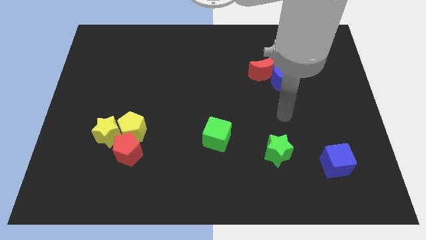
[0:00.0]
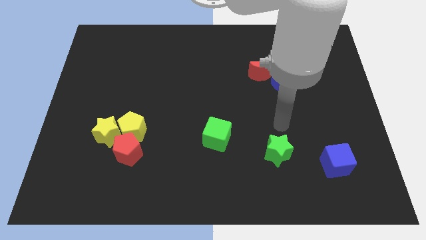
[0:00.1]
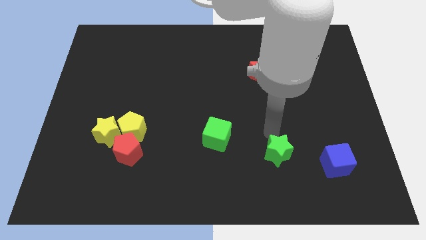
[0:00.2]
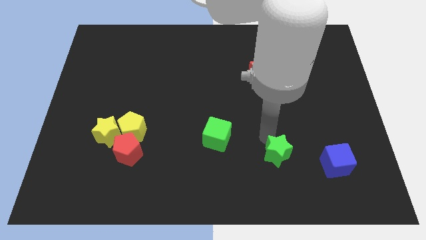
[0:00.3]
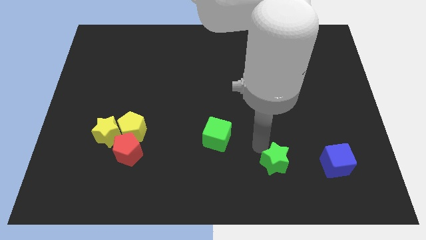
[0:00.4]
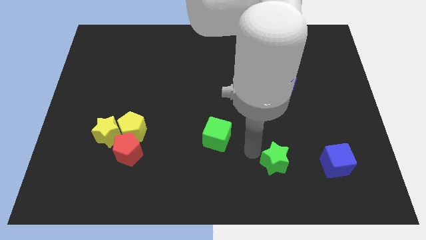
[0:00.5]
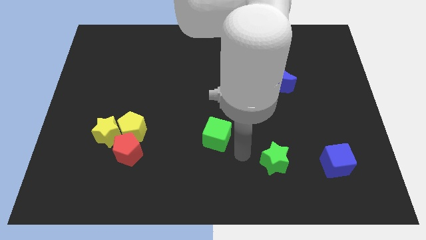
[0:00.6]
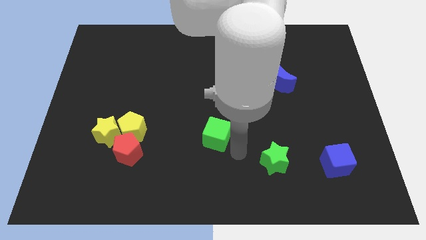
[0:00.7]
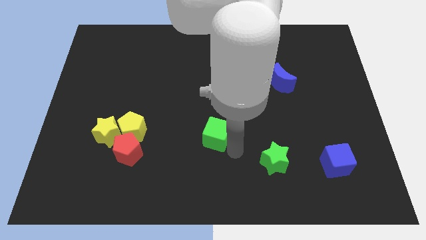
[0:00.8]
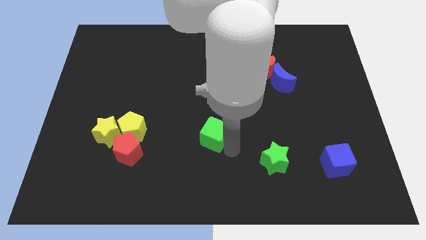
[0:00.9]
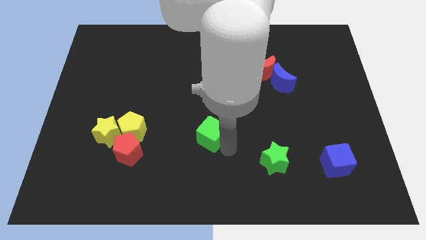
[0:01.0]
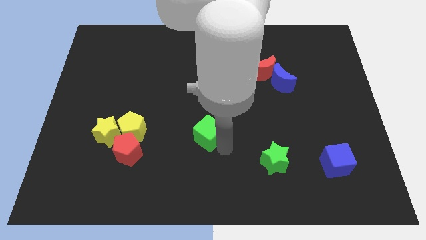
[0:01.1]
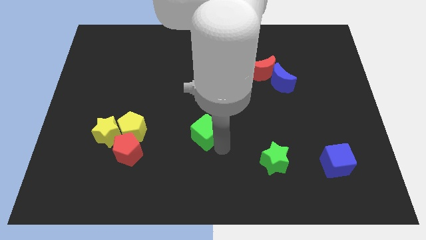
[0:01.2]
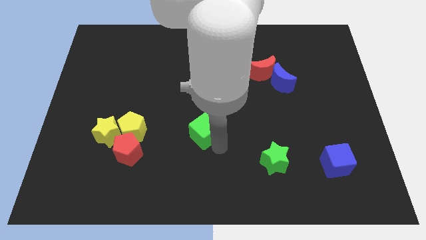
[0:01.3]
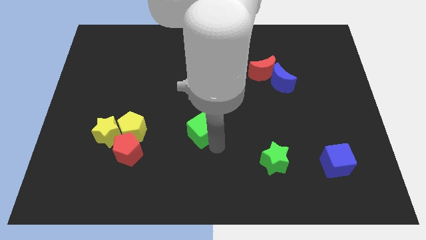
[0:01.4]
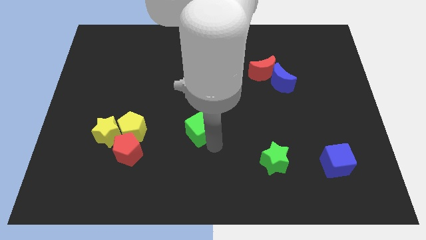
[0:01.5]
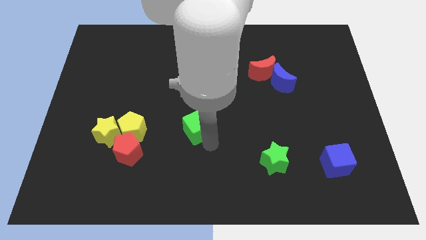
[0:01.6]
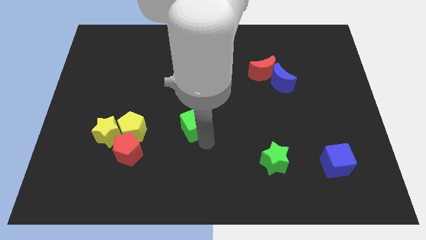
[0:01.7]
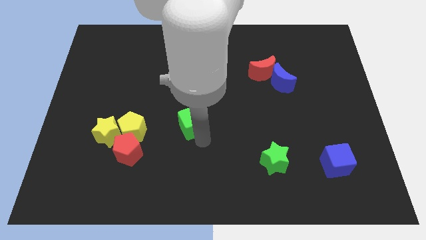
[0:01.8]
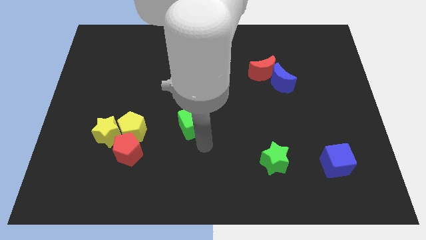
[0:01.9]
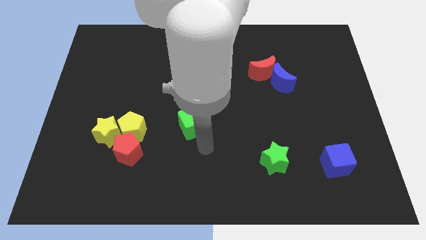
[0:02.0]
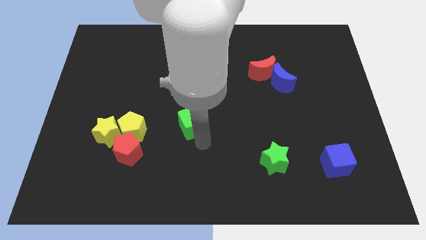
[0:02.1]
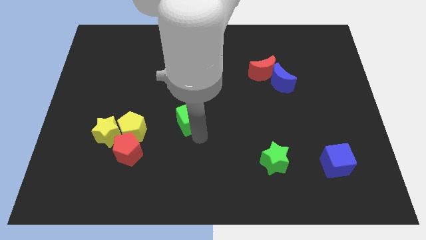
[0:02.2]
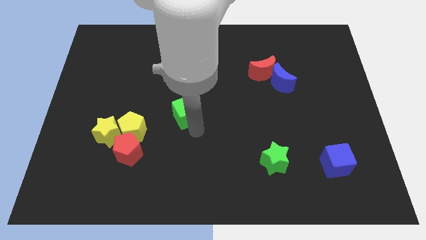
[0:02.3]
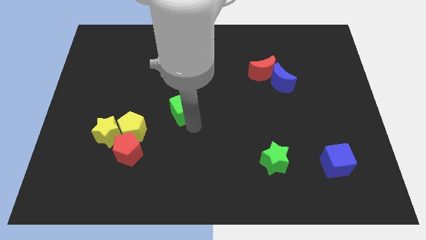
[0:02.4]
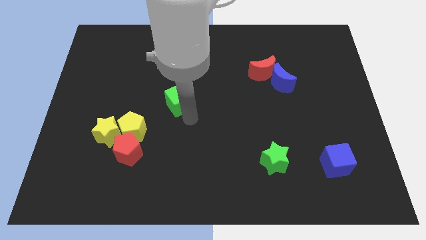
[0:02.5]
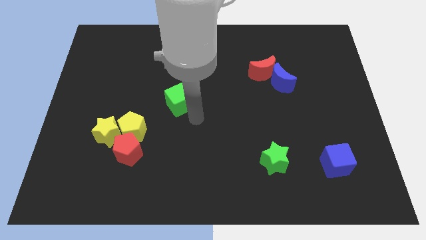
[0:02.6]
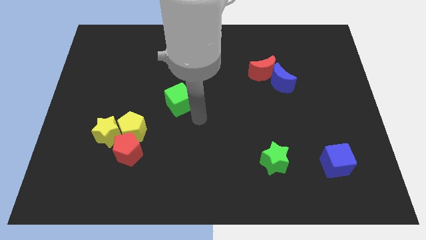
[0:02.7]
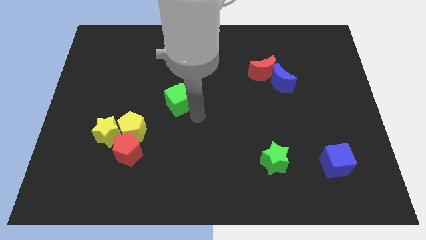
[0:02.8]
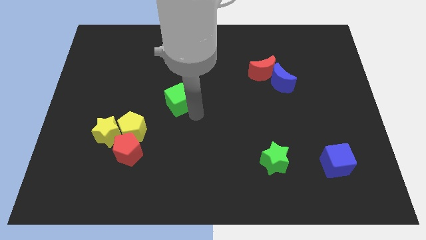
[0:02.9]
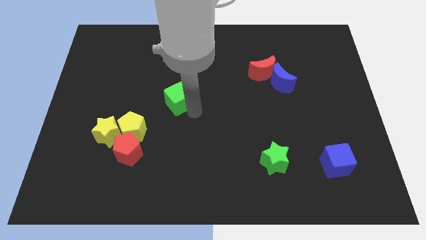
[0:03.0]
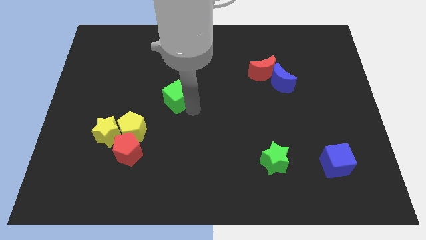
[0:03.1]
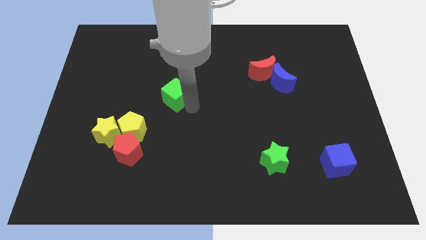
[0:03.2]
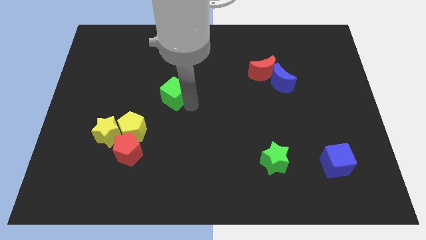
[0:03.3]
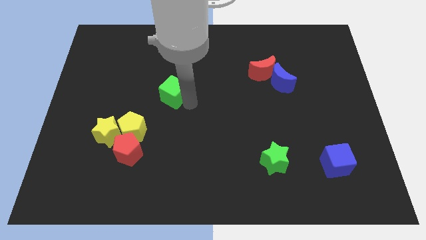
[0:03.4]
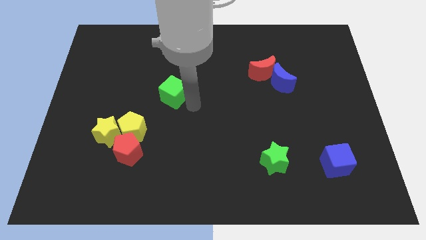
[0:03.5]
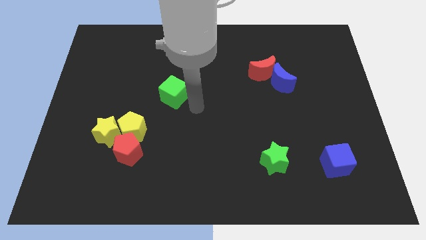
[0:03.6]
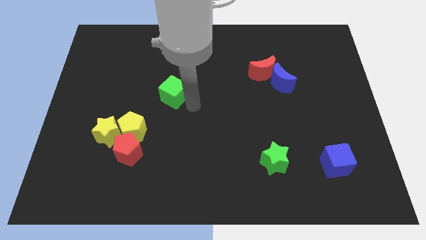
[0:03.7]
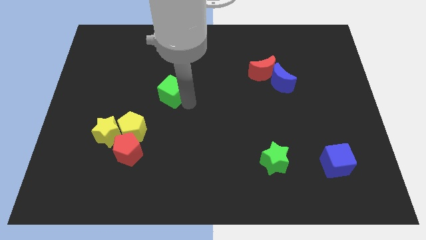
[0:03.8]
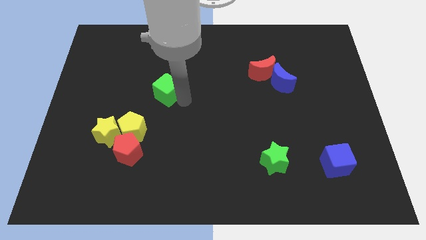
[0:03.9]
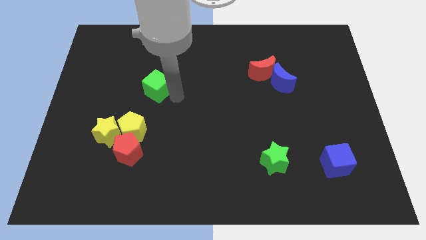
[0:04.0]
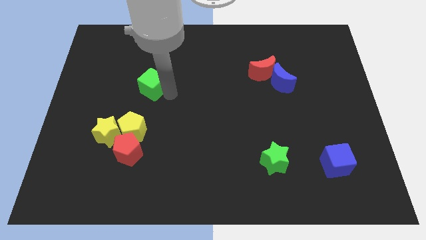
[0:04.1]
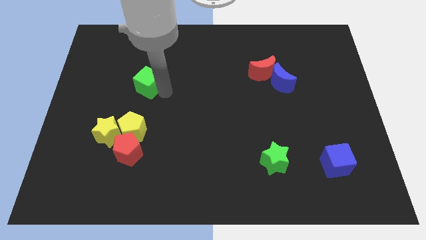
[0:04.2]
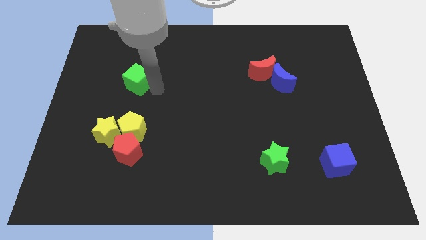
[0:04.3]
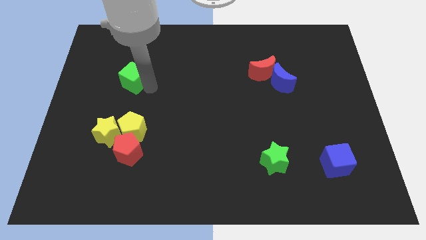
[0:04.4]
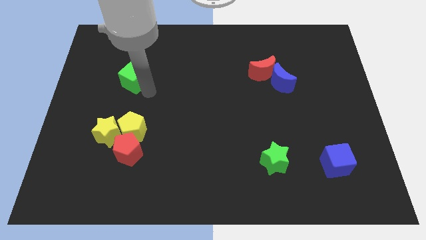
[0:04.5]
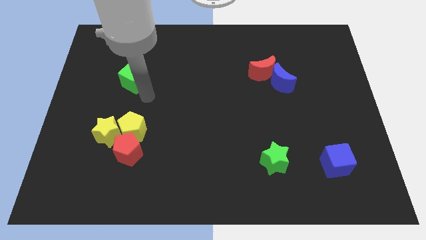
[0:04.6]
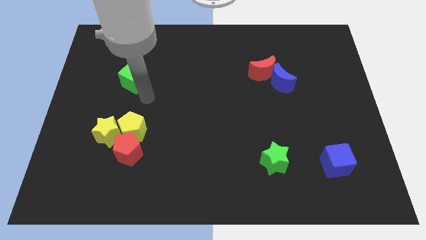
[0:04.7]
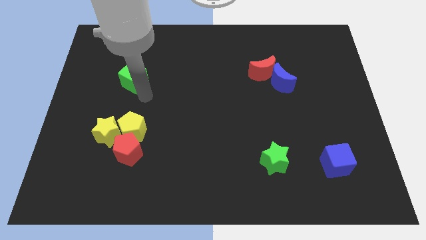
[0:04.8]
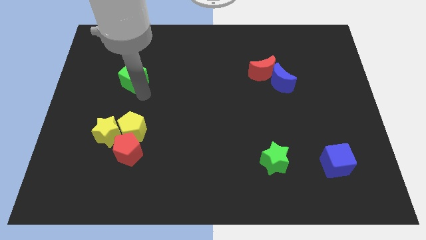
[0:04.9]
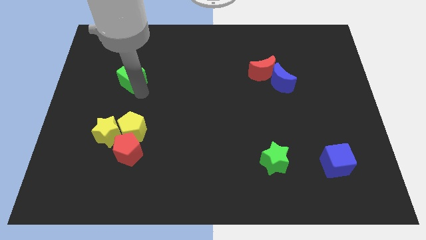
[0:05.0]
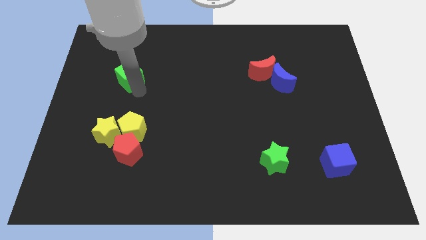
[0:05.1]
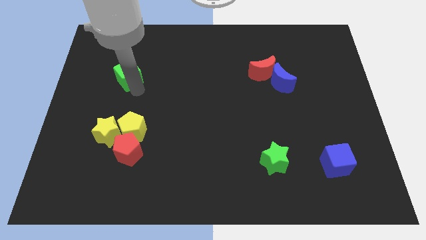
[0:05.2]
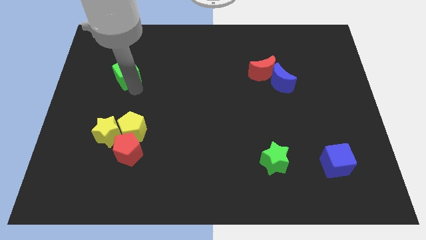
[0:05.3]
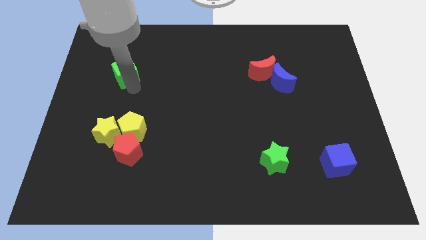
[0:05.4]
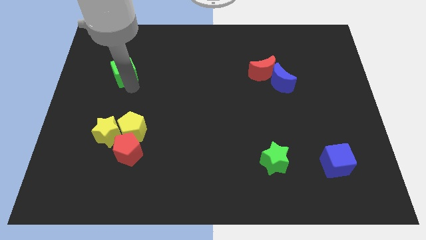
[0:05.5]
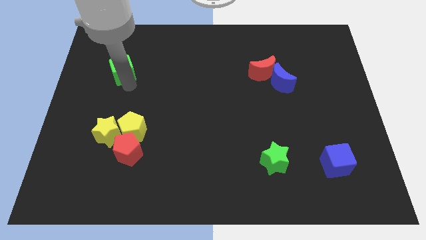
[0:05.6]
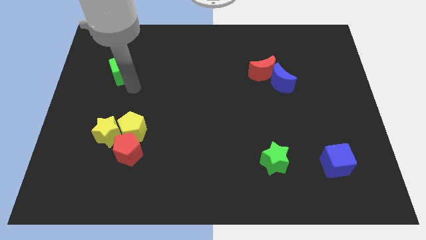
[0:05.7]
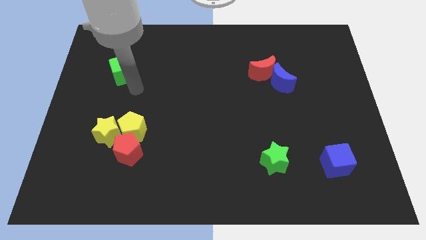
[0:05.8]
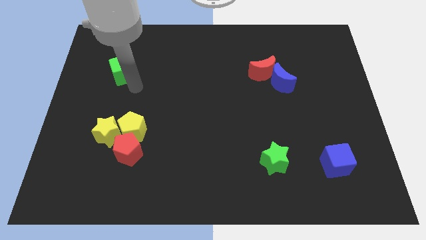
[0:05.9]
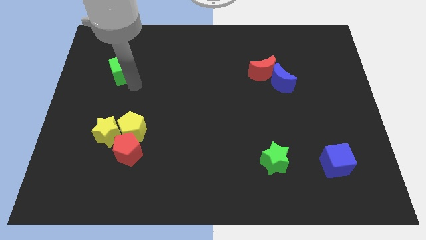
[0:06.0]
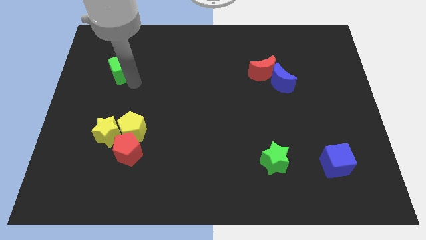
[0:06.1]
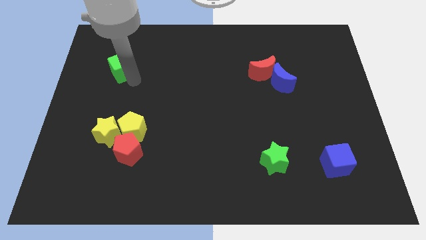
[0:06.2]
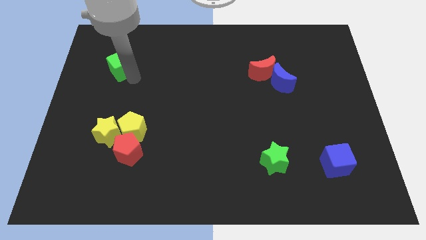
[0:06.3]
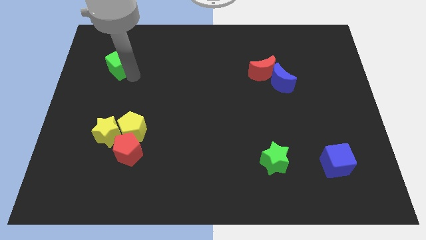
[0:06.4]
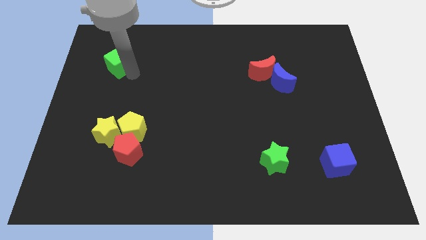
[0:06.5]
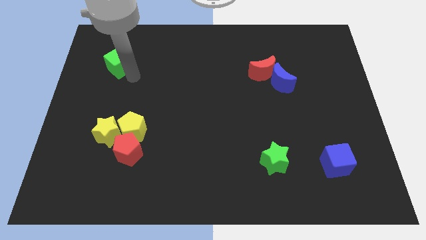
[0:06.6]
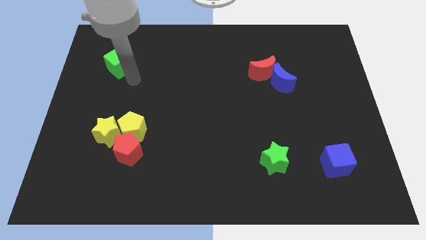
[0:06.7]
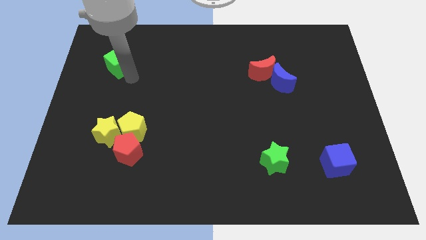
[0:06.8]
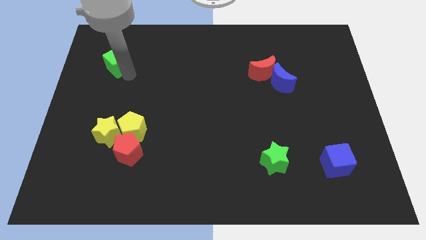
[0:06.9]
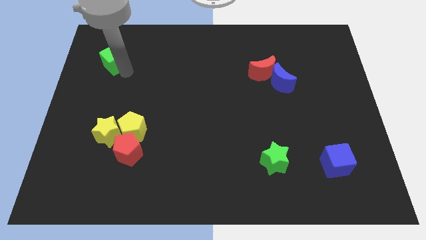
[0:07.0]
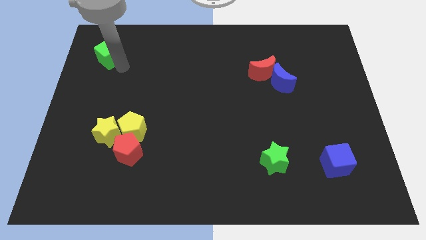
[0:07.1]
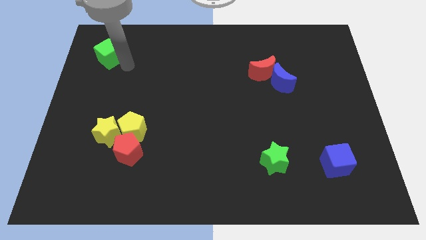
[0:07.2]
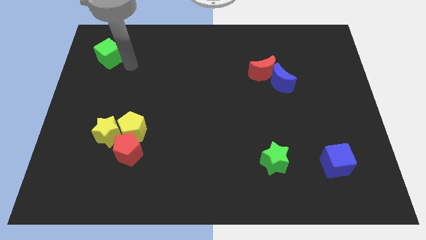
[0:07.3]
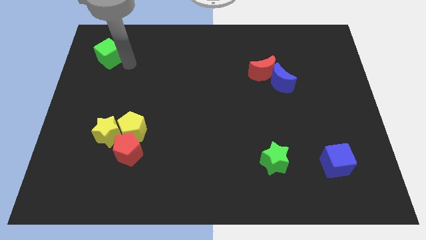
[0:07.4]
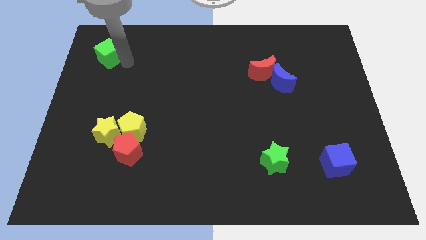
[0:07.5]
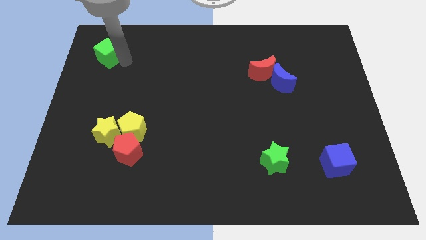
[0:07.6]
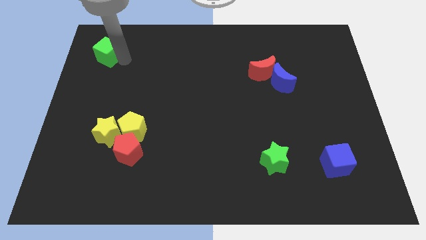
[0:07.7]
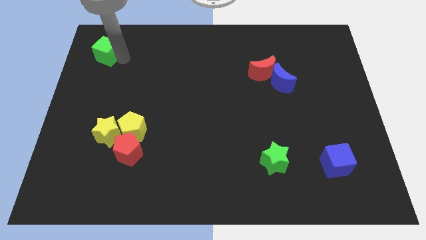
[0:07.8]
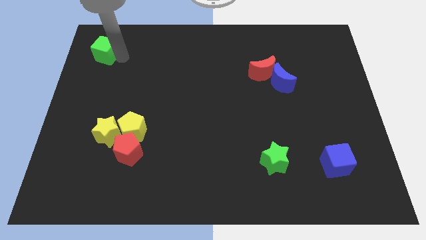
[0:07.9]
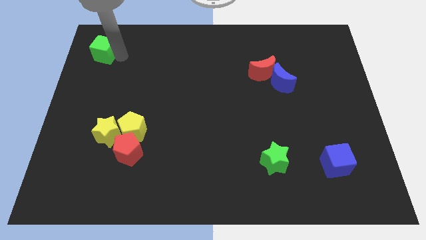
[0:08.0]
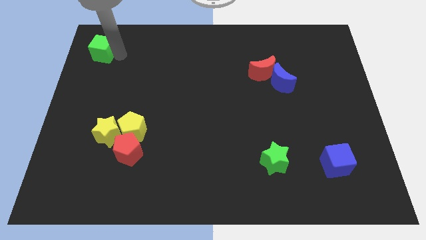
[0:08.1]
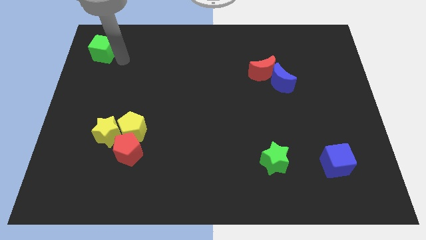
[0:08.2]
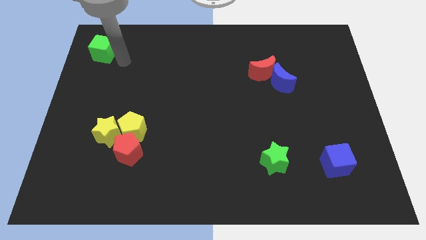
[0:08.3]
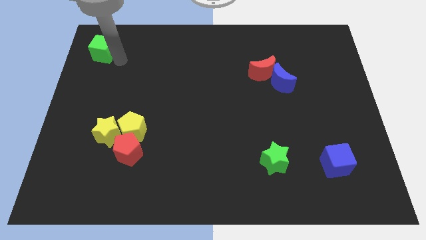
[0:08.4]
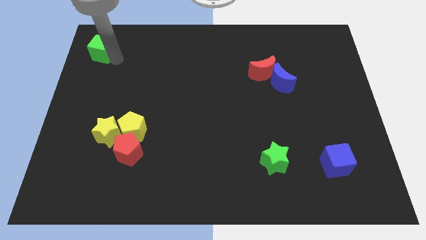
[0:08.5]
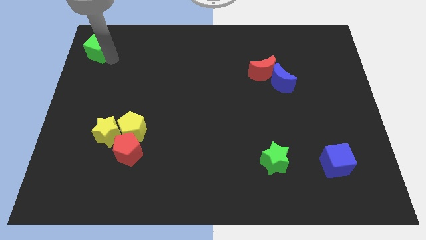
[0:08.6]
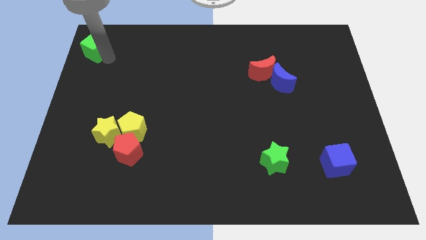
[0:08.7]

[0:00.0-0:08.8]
push the green cube to the upper left corner
